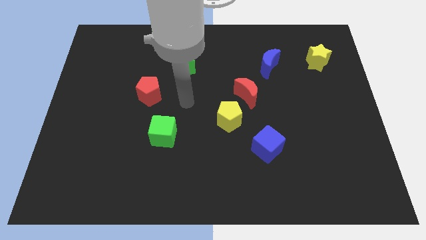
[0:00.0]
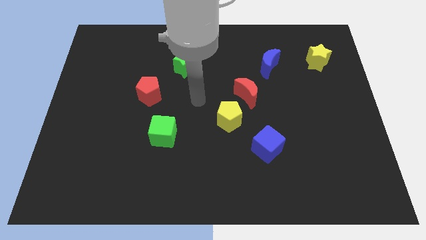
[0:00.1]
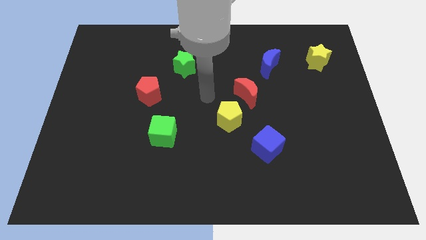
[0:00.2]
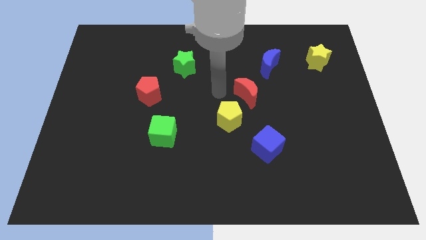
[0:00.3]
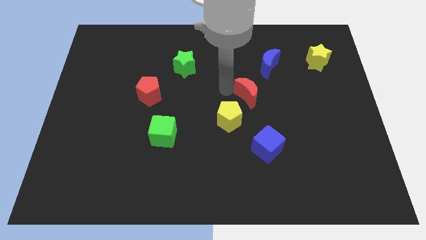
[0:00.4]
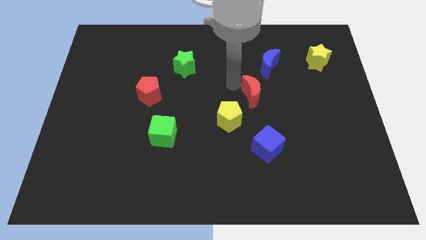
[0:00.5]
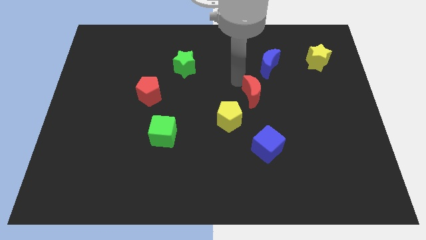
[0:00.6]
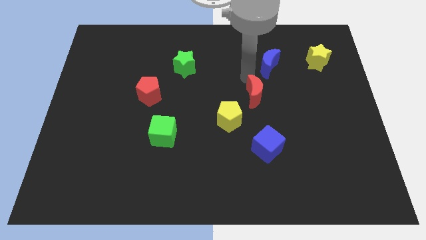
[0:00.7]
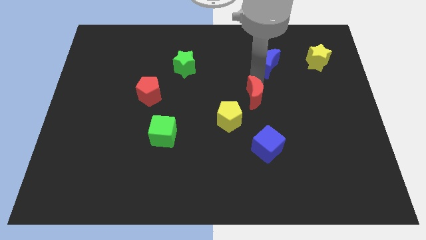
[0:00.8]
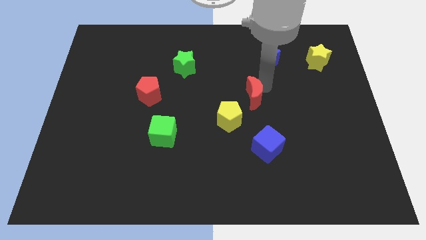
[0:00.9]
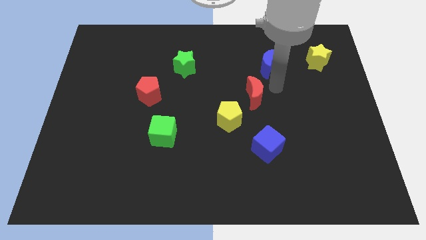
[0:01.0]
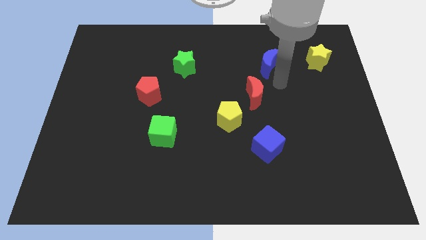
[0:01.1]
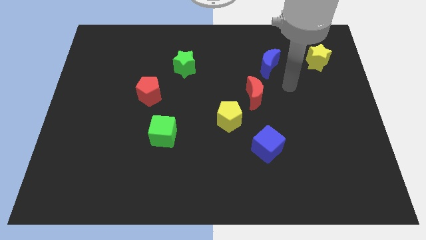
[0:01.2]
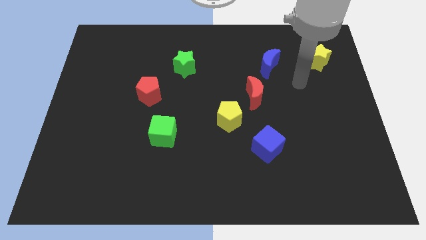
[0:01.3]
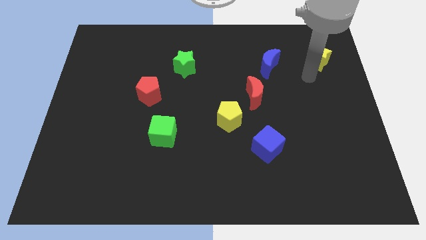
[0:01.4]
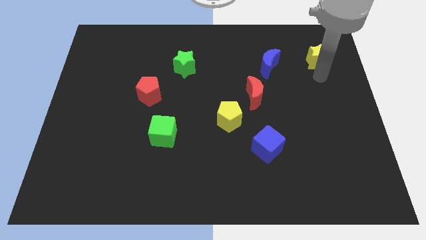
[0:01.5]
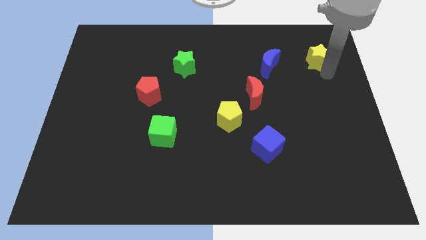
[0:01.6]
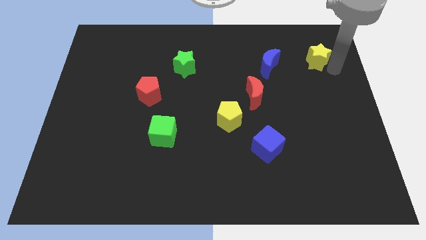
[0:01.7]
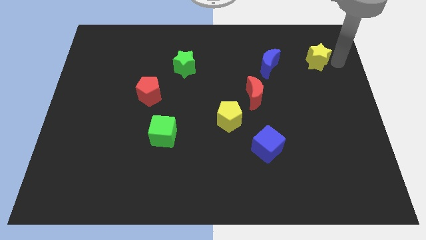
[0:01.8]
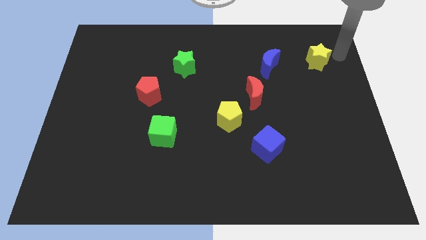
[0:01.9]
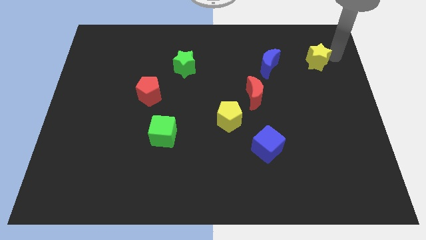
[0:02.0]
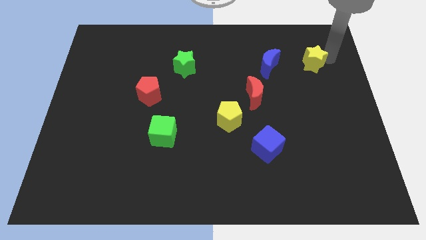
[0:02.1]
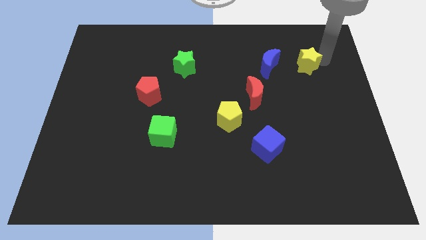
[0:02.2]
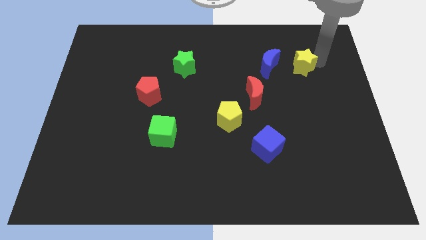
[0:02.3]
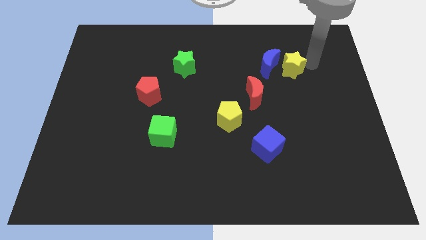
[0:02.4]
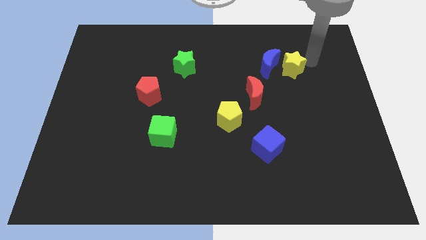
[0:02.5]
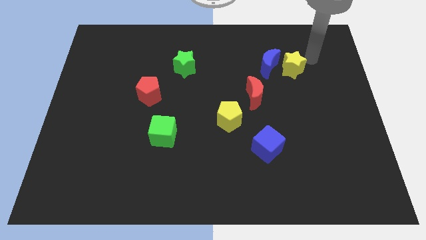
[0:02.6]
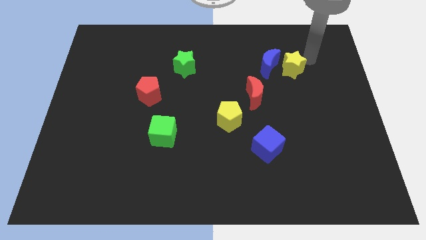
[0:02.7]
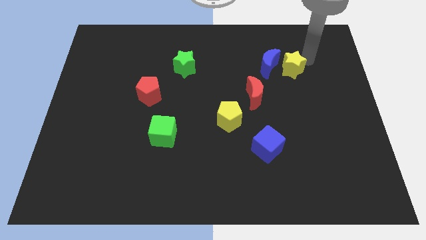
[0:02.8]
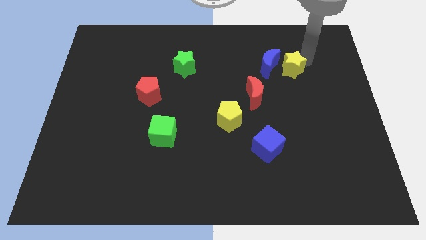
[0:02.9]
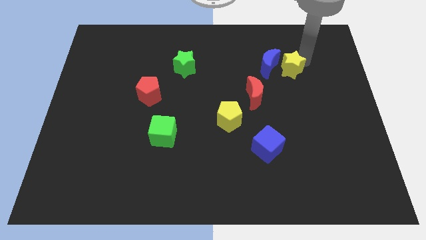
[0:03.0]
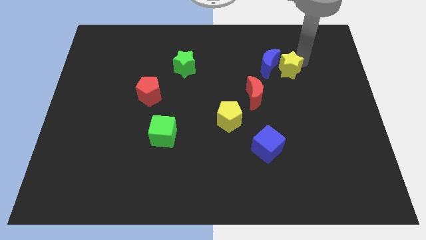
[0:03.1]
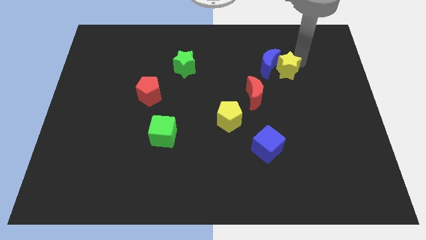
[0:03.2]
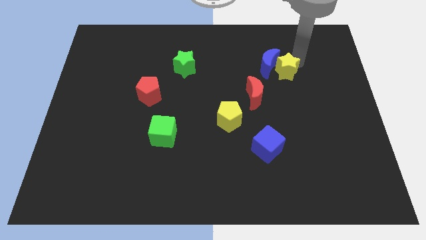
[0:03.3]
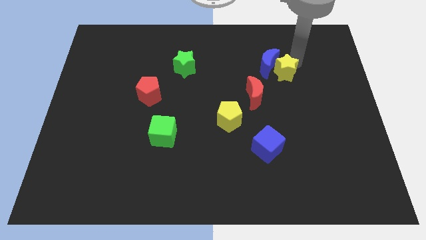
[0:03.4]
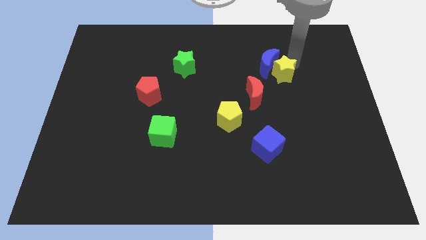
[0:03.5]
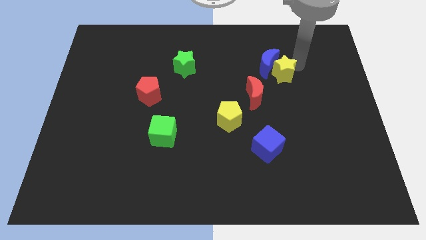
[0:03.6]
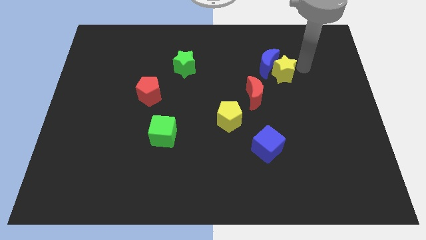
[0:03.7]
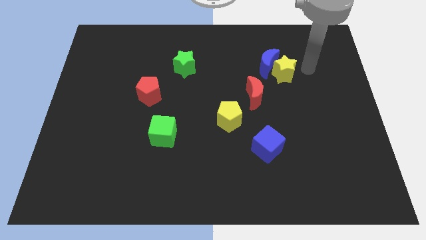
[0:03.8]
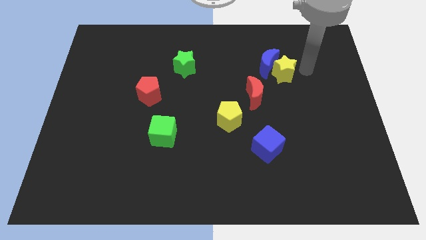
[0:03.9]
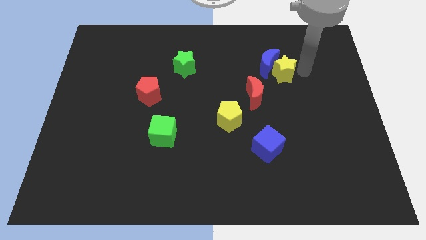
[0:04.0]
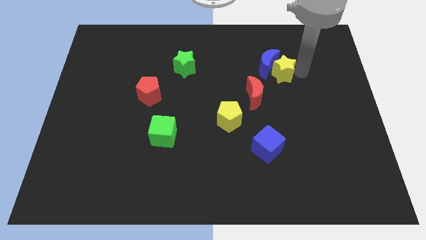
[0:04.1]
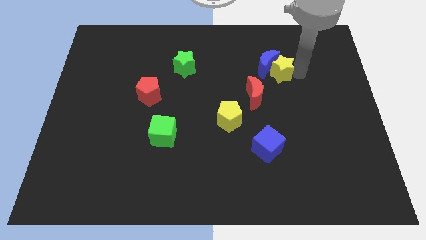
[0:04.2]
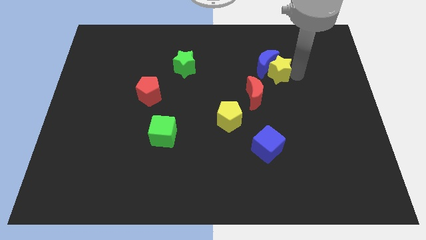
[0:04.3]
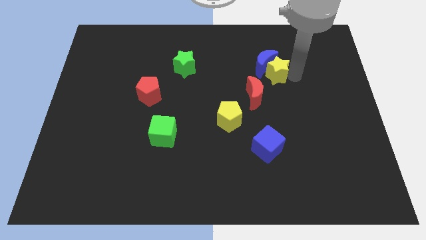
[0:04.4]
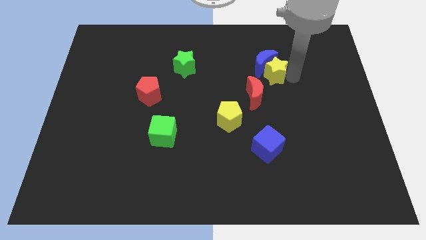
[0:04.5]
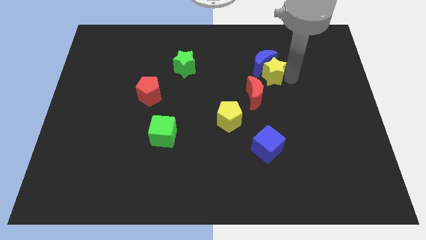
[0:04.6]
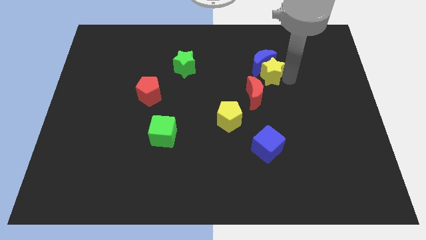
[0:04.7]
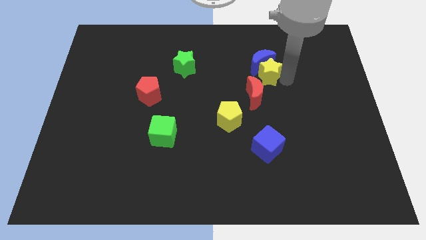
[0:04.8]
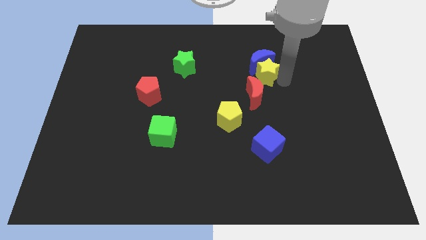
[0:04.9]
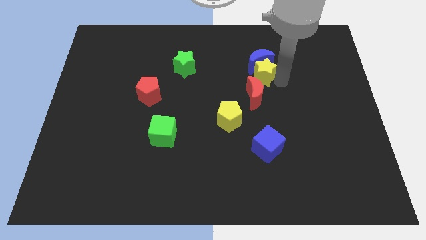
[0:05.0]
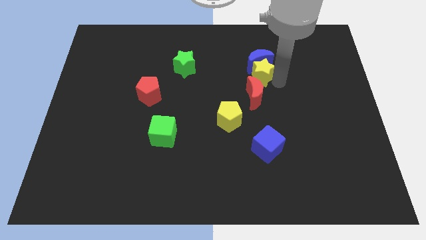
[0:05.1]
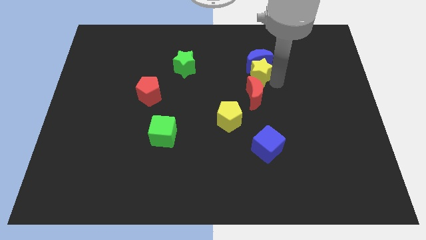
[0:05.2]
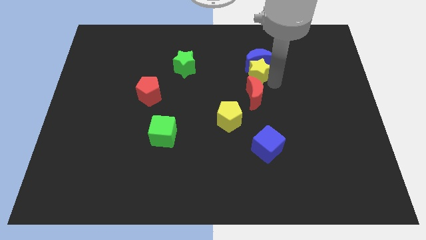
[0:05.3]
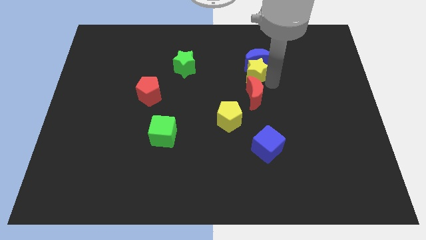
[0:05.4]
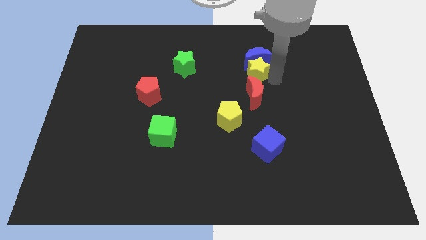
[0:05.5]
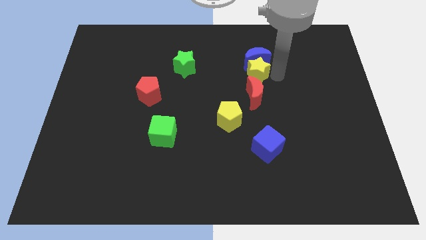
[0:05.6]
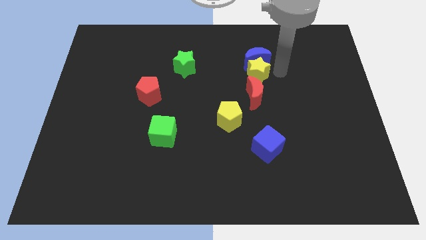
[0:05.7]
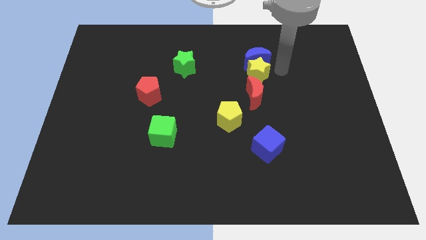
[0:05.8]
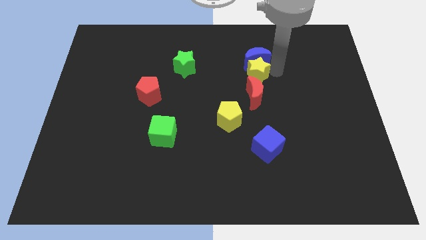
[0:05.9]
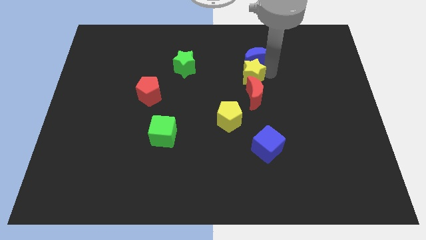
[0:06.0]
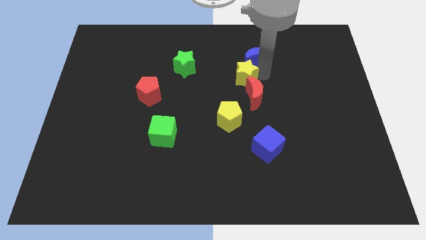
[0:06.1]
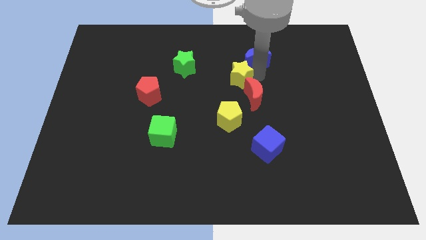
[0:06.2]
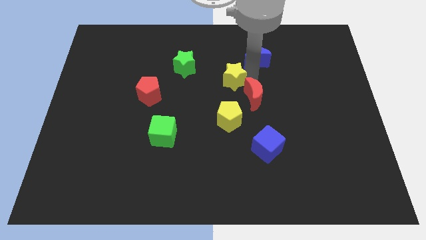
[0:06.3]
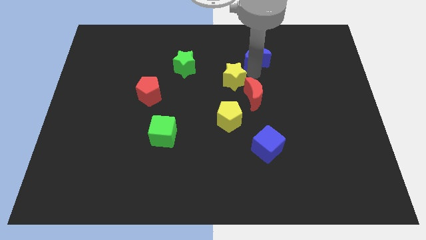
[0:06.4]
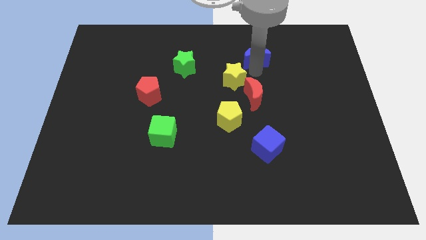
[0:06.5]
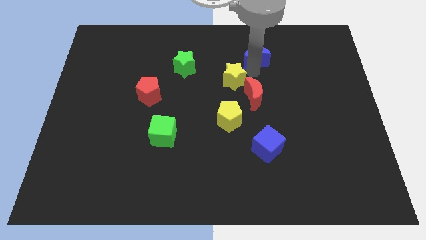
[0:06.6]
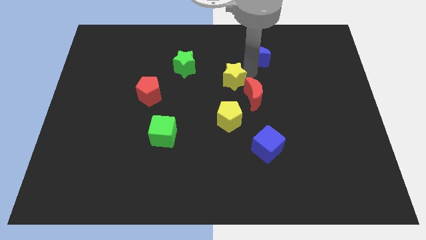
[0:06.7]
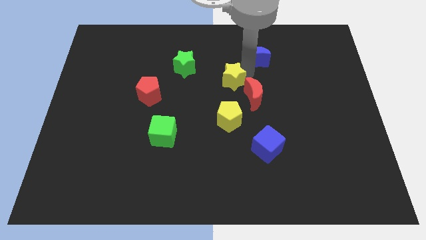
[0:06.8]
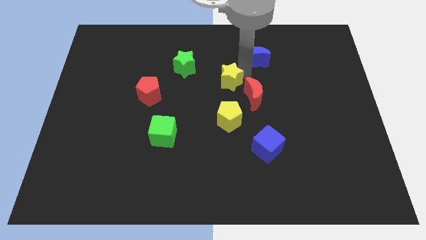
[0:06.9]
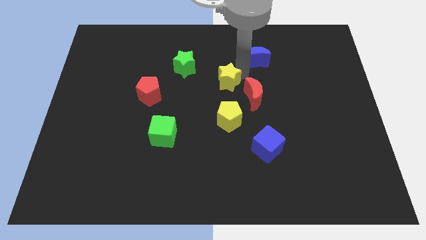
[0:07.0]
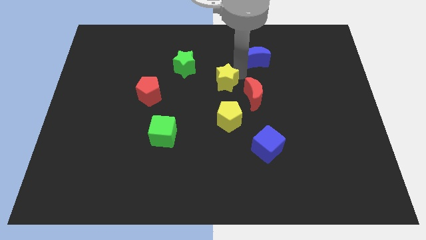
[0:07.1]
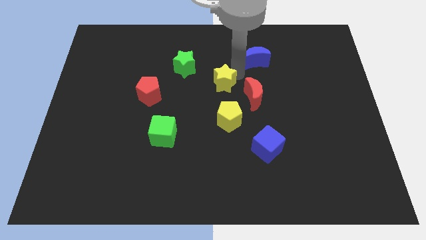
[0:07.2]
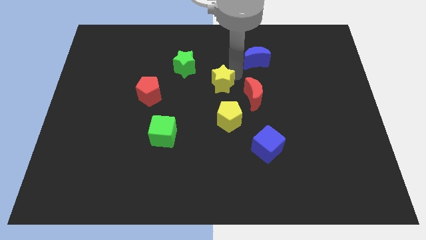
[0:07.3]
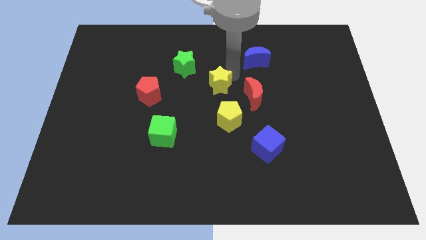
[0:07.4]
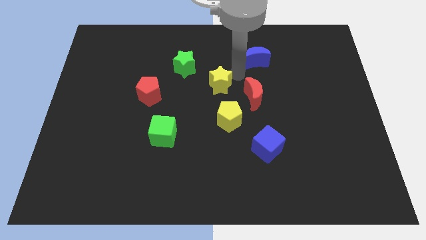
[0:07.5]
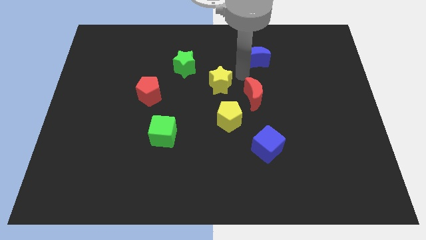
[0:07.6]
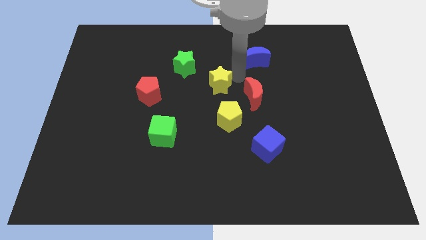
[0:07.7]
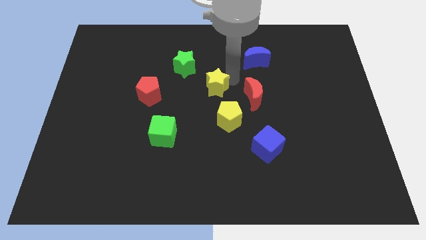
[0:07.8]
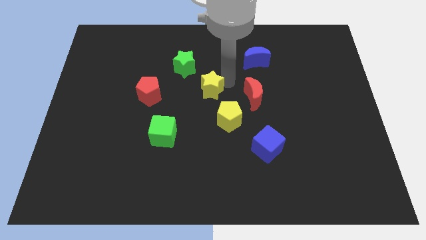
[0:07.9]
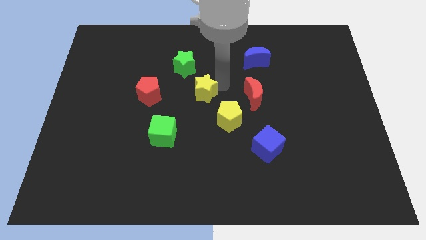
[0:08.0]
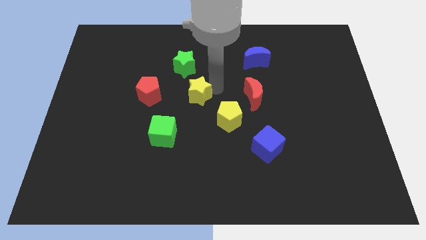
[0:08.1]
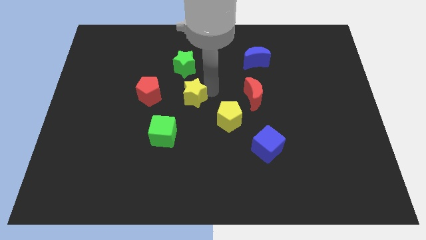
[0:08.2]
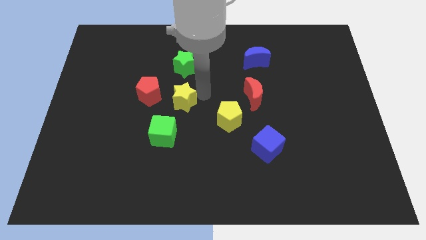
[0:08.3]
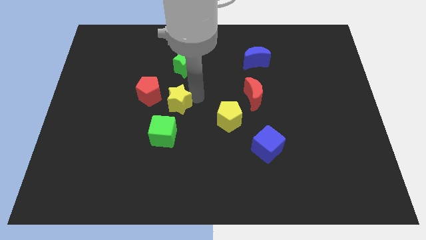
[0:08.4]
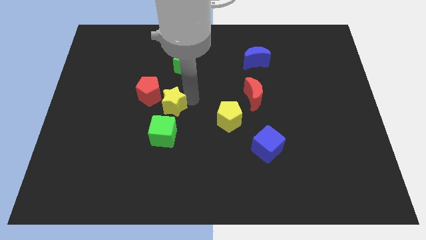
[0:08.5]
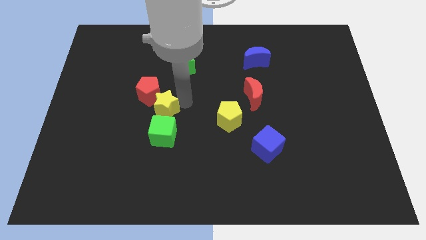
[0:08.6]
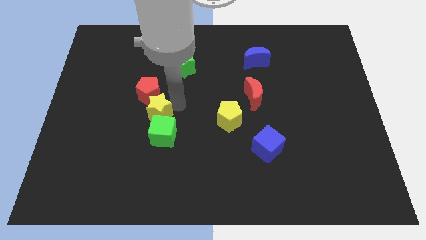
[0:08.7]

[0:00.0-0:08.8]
push the yellow star diagonally up and to the left of the green cube
